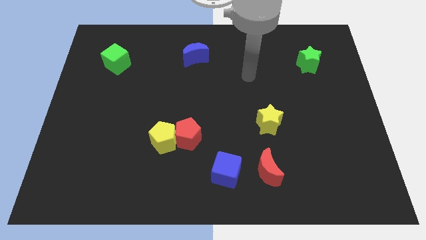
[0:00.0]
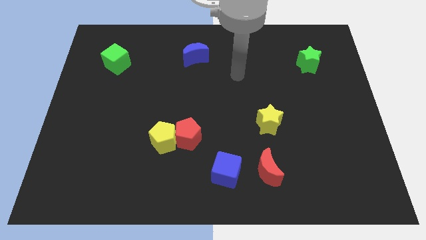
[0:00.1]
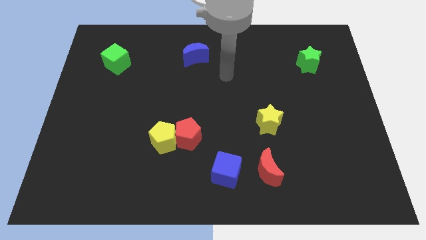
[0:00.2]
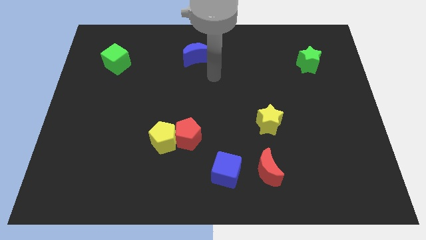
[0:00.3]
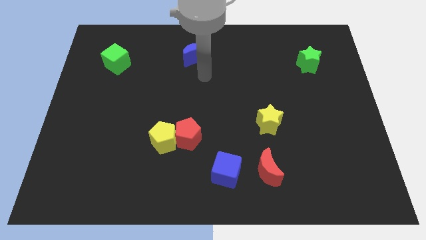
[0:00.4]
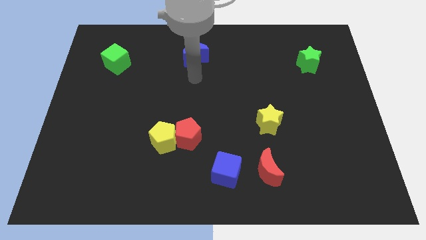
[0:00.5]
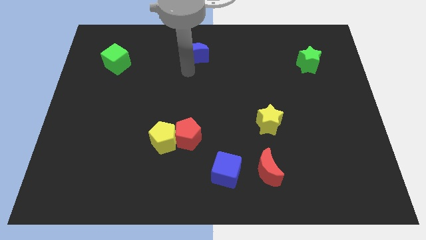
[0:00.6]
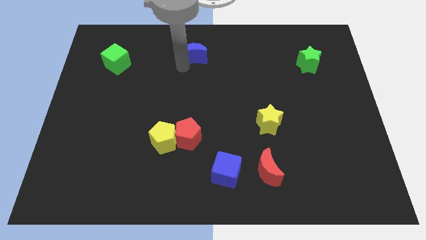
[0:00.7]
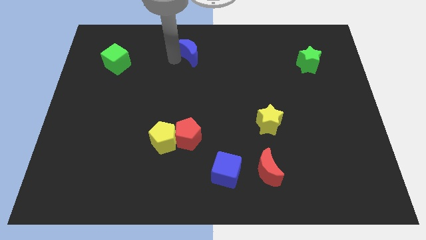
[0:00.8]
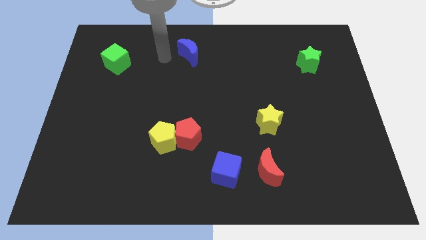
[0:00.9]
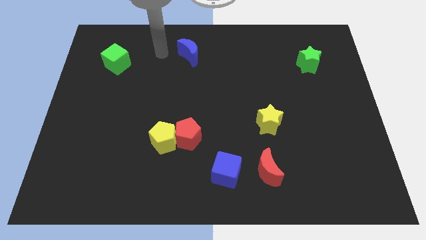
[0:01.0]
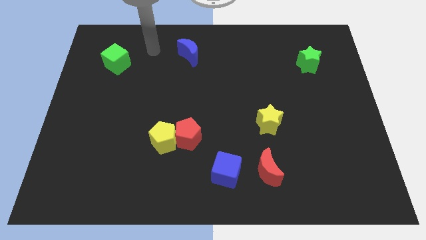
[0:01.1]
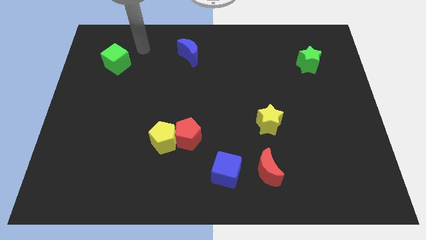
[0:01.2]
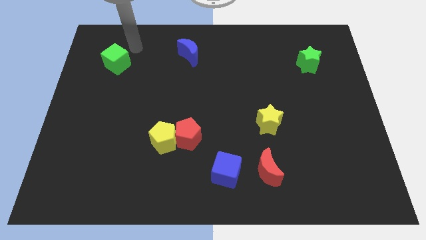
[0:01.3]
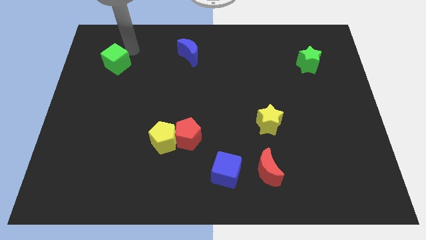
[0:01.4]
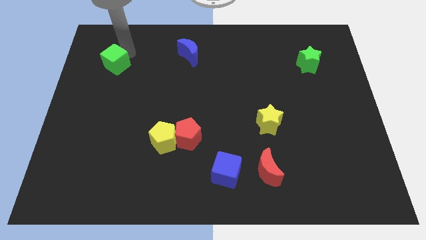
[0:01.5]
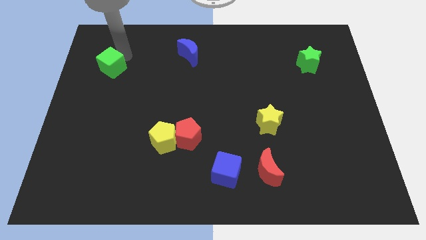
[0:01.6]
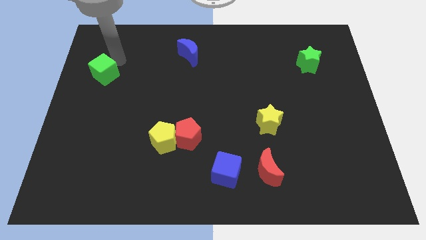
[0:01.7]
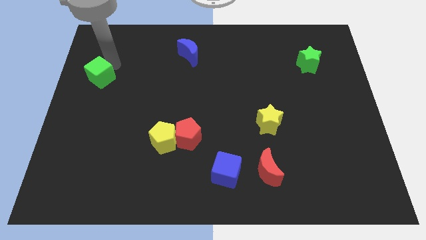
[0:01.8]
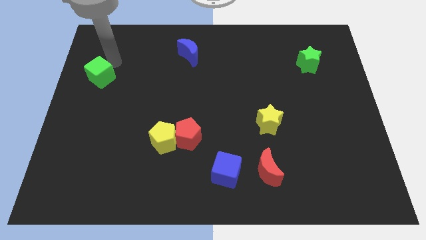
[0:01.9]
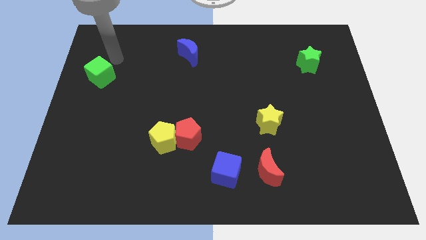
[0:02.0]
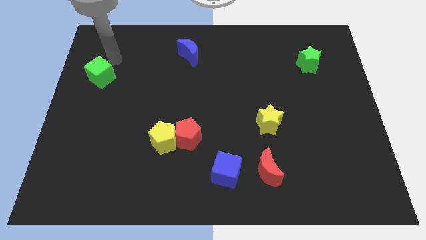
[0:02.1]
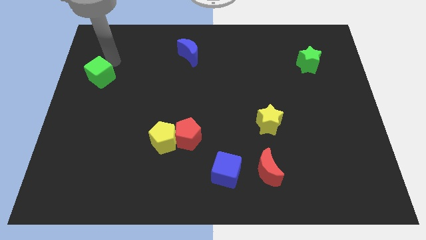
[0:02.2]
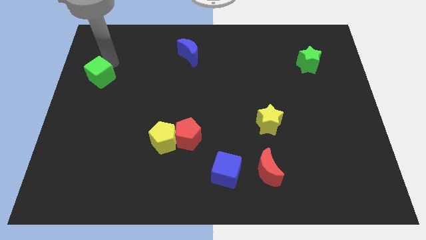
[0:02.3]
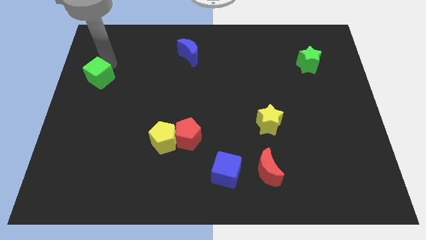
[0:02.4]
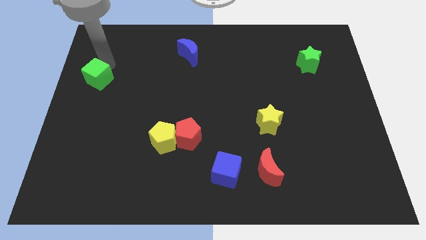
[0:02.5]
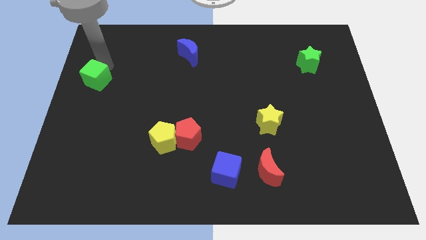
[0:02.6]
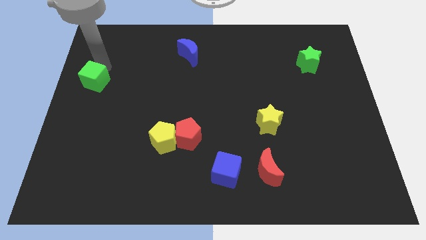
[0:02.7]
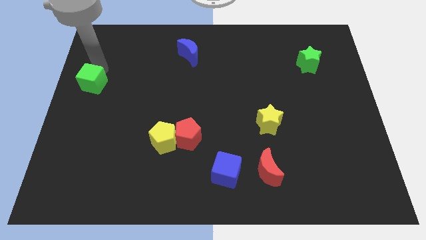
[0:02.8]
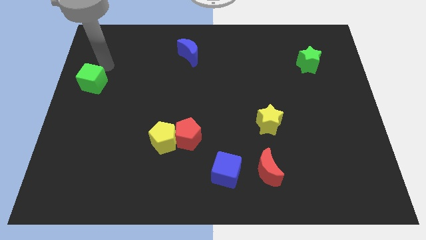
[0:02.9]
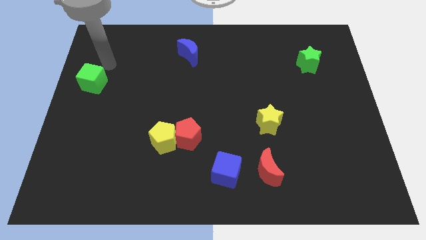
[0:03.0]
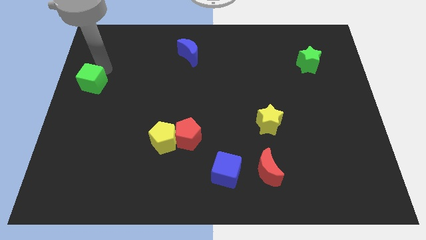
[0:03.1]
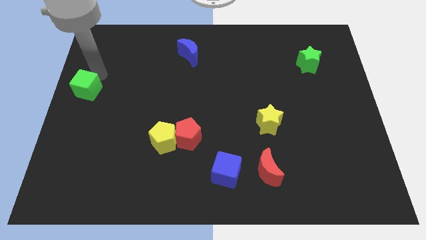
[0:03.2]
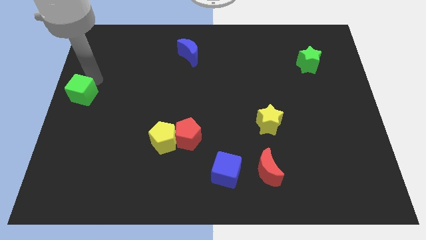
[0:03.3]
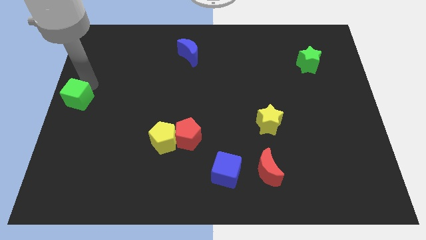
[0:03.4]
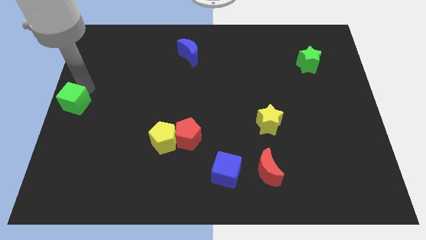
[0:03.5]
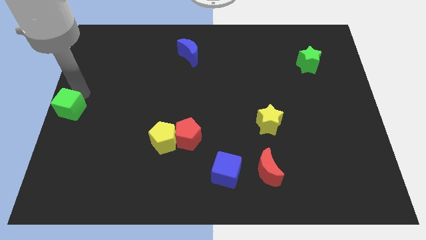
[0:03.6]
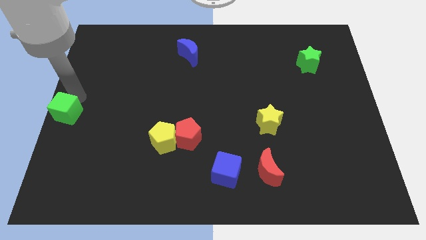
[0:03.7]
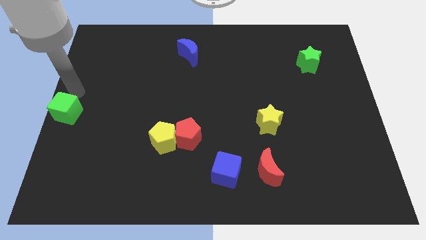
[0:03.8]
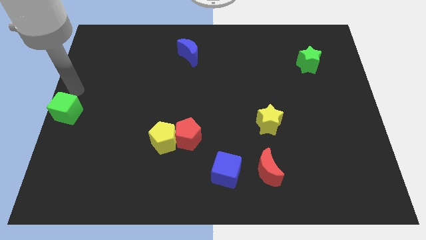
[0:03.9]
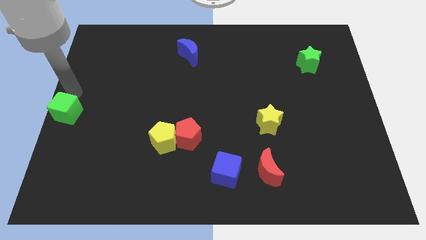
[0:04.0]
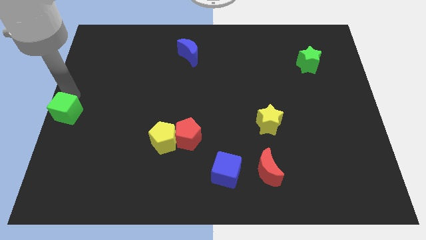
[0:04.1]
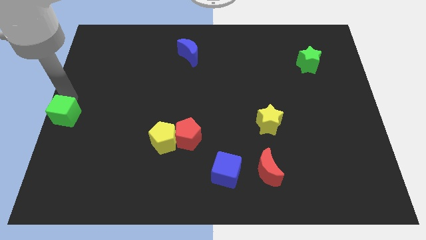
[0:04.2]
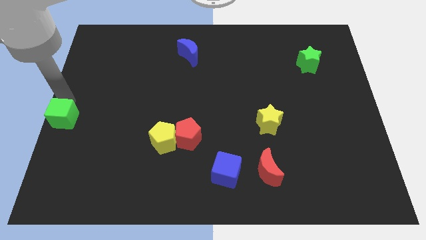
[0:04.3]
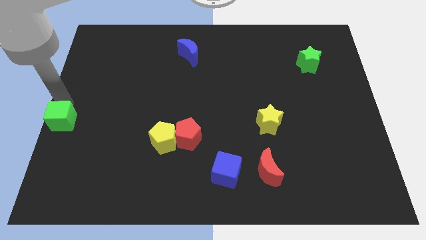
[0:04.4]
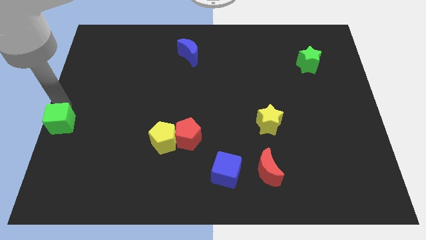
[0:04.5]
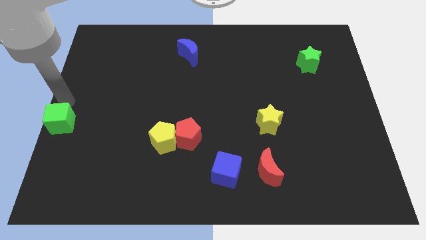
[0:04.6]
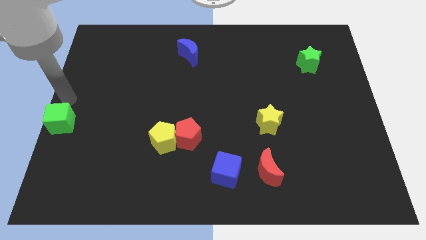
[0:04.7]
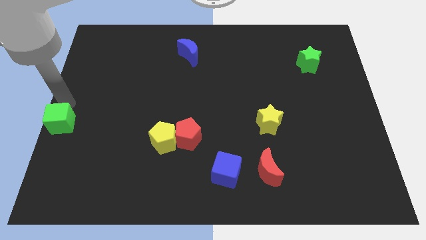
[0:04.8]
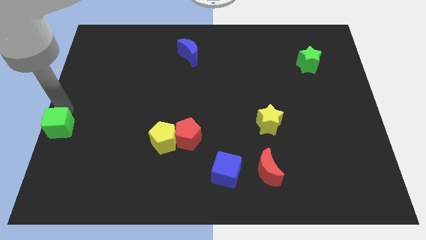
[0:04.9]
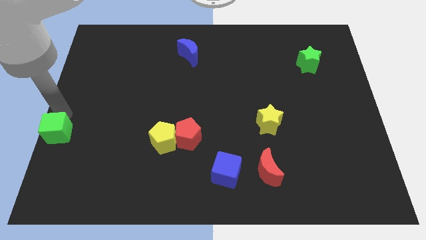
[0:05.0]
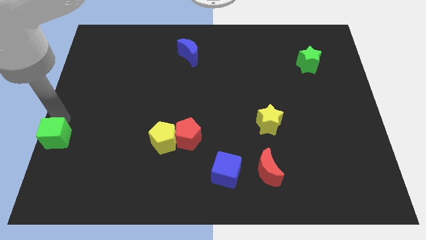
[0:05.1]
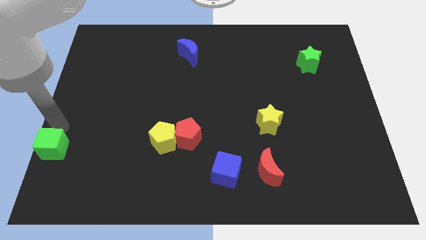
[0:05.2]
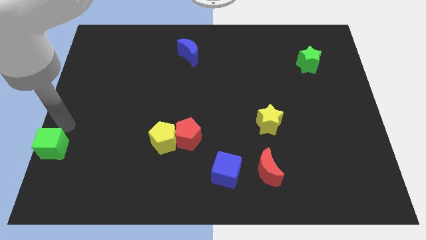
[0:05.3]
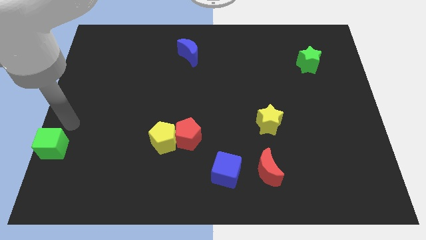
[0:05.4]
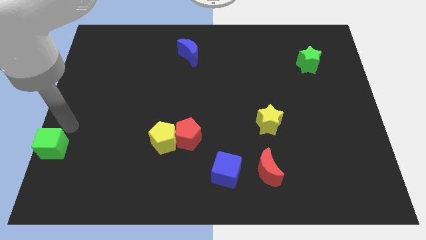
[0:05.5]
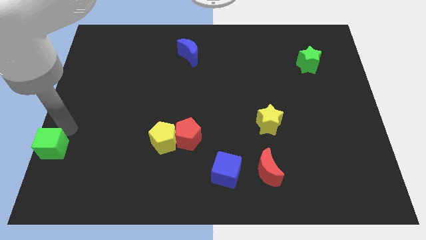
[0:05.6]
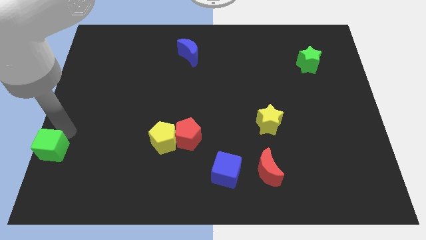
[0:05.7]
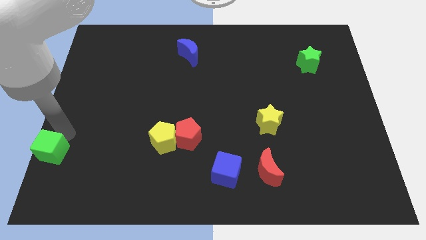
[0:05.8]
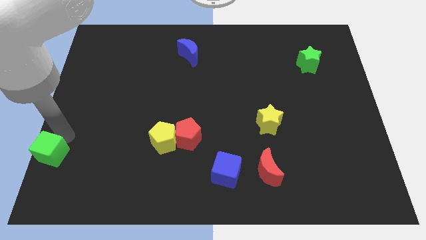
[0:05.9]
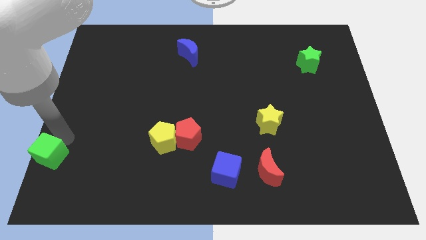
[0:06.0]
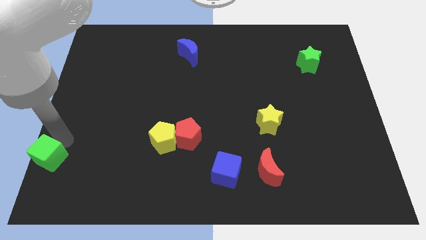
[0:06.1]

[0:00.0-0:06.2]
slide the green cube to the bottom left

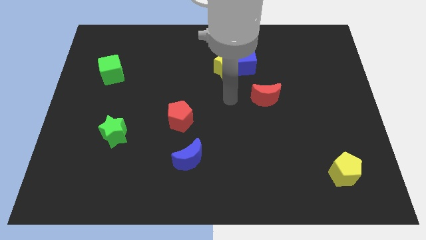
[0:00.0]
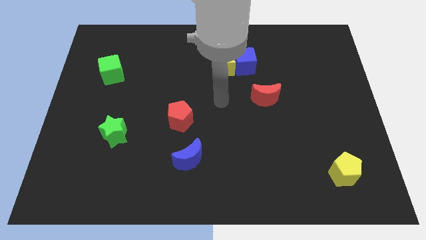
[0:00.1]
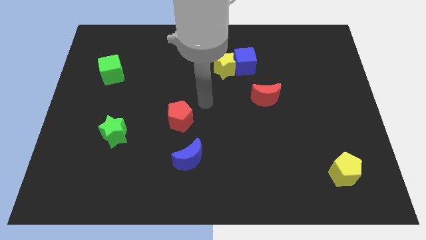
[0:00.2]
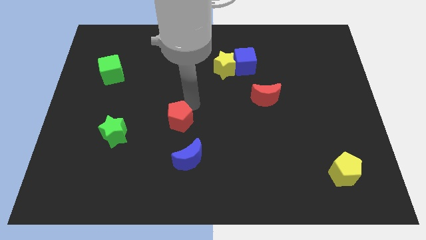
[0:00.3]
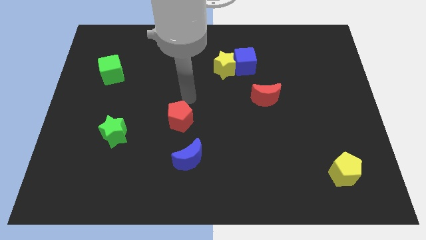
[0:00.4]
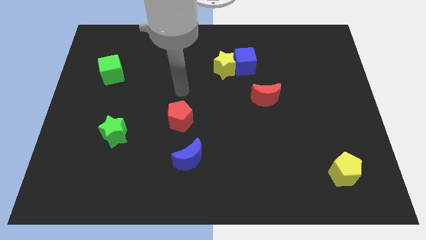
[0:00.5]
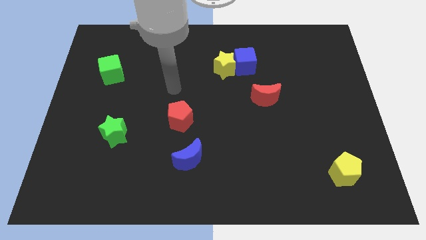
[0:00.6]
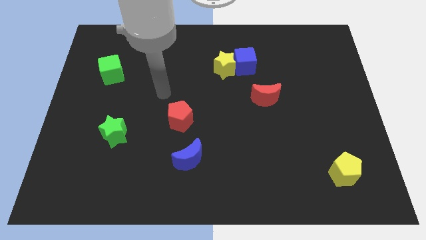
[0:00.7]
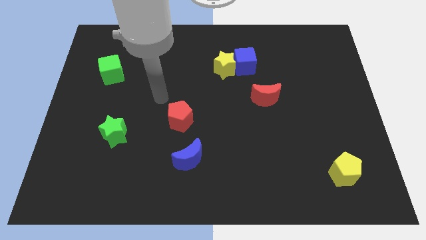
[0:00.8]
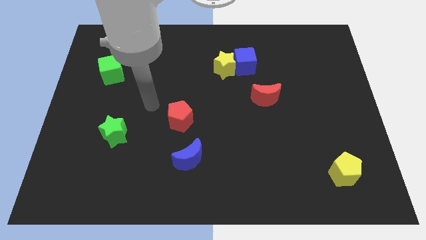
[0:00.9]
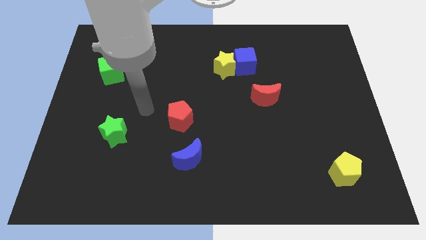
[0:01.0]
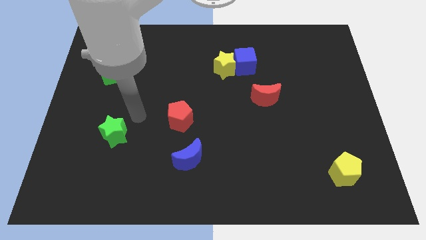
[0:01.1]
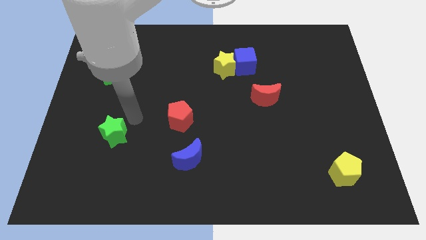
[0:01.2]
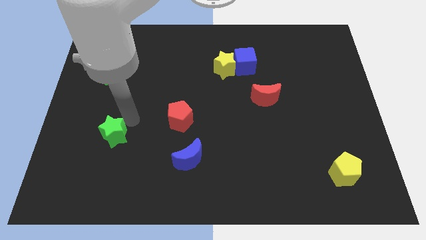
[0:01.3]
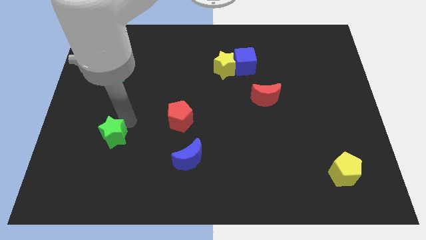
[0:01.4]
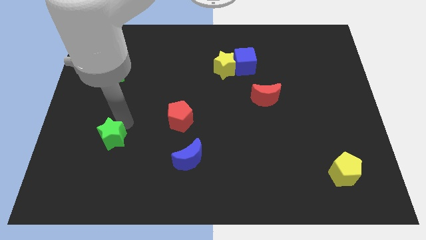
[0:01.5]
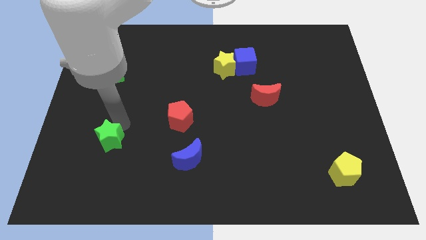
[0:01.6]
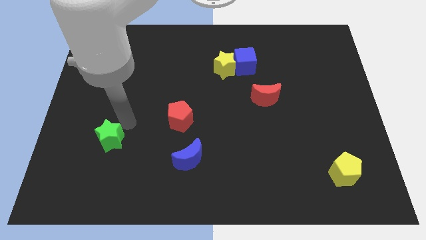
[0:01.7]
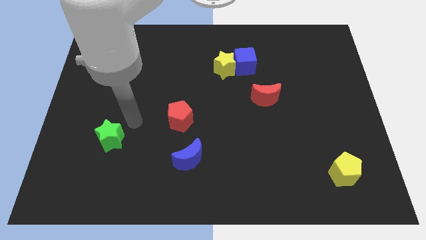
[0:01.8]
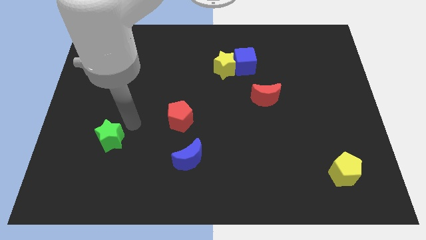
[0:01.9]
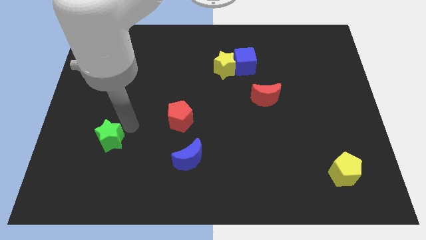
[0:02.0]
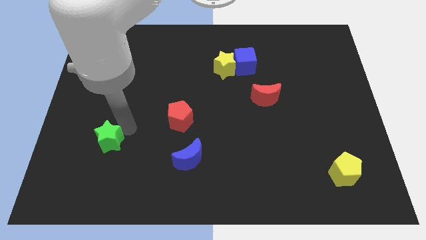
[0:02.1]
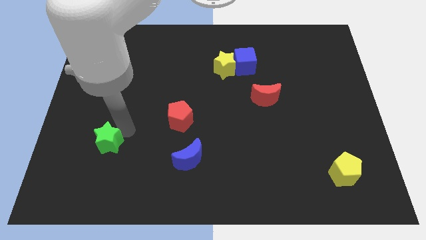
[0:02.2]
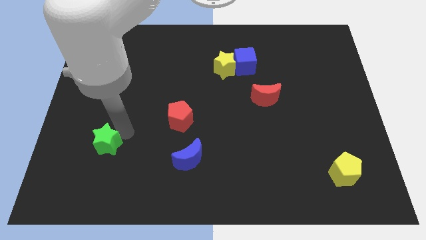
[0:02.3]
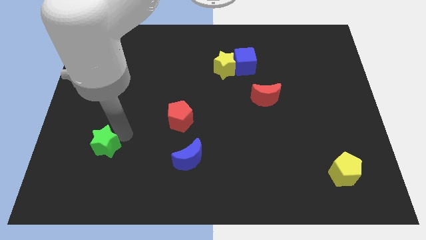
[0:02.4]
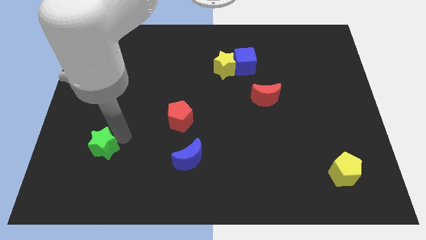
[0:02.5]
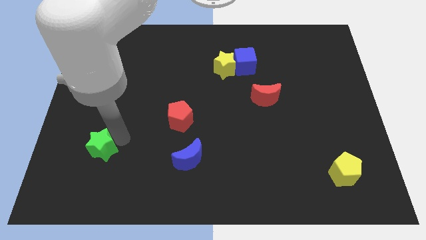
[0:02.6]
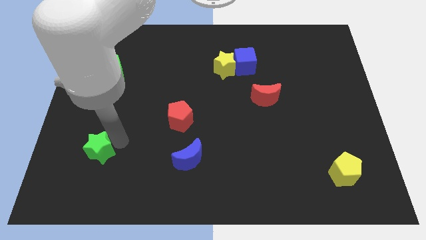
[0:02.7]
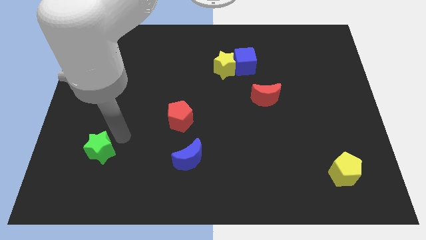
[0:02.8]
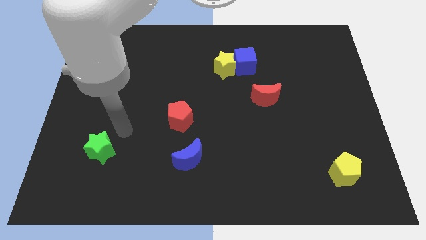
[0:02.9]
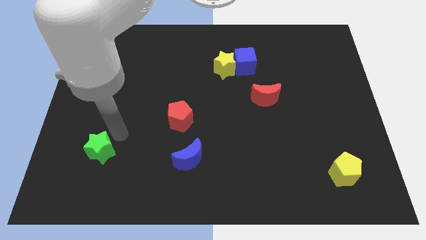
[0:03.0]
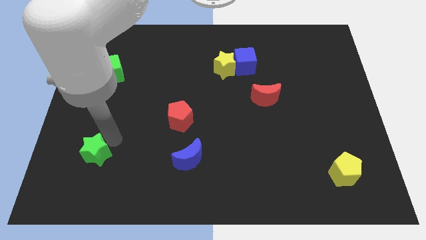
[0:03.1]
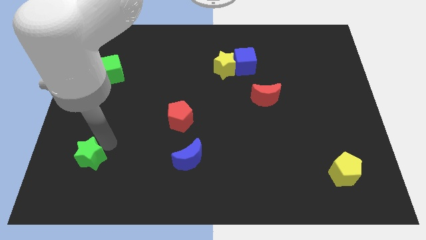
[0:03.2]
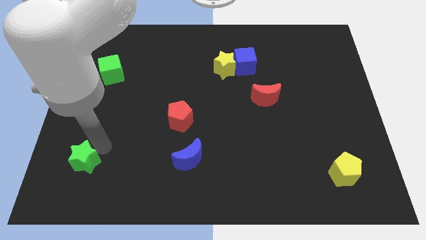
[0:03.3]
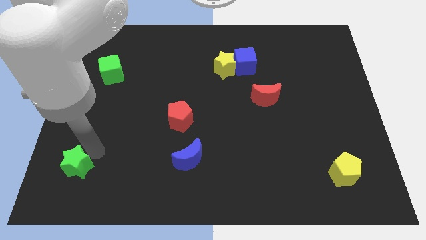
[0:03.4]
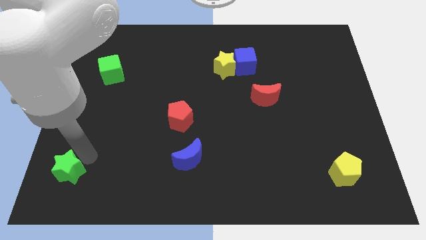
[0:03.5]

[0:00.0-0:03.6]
push the green star to the bottom left of the board
